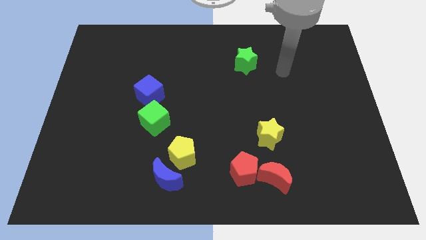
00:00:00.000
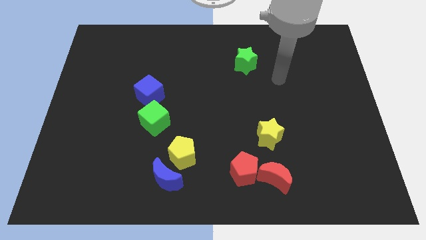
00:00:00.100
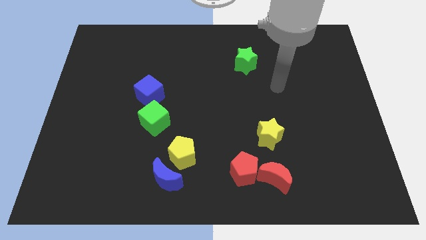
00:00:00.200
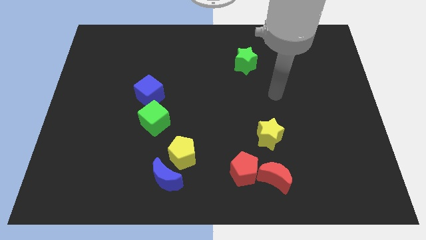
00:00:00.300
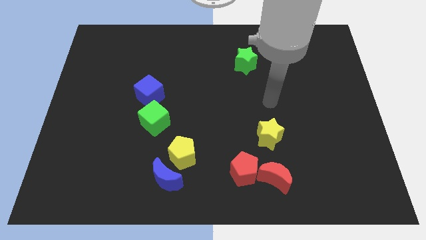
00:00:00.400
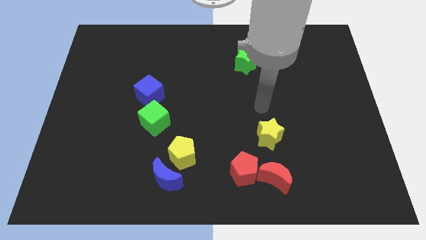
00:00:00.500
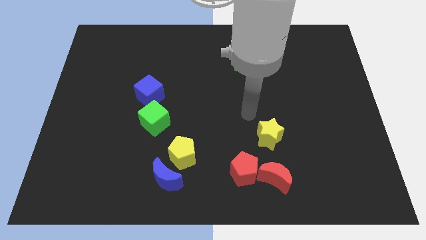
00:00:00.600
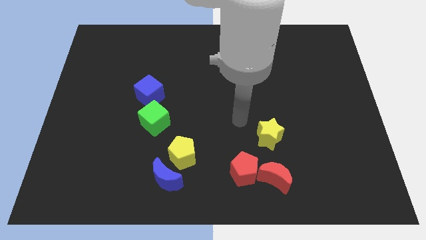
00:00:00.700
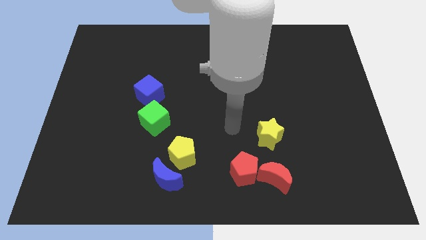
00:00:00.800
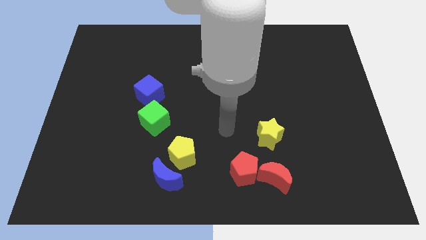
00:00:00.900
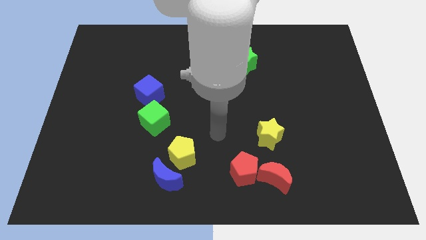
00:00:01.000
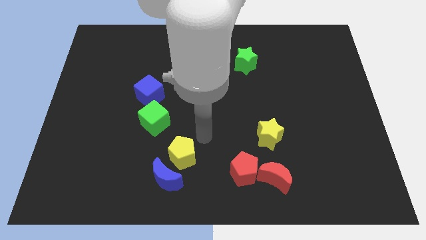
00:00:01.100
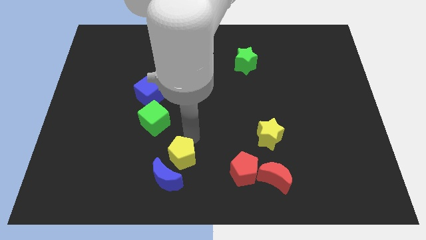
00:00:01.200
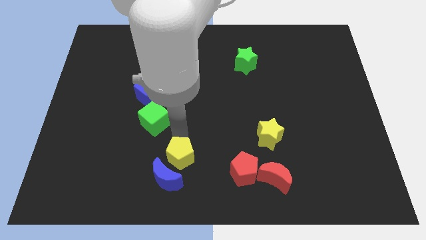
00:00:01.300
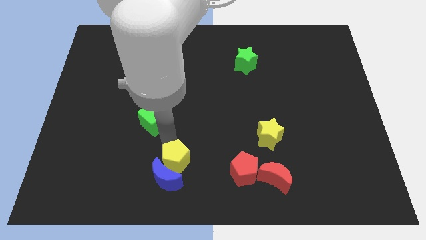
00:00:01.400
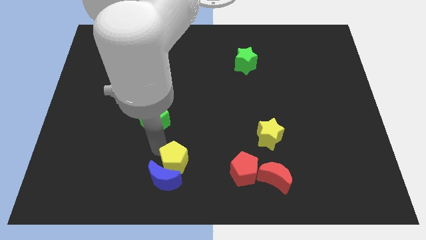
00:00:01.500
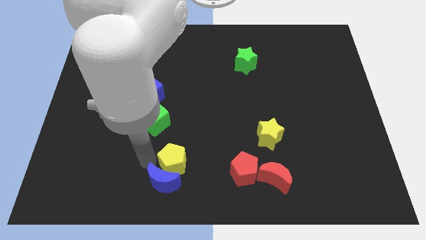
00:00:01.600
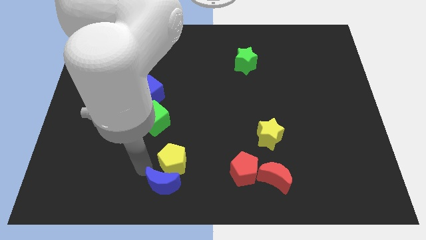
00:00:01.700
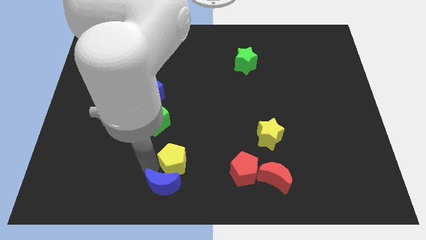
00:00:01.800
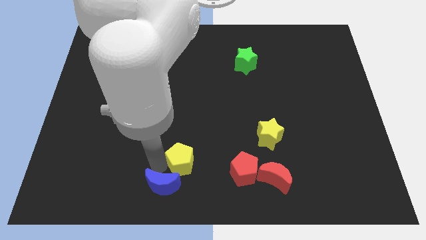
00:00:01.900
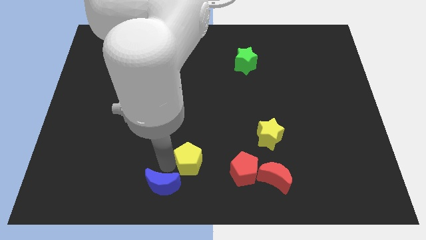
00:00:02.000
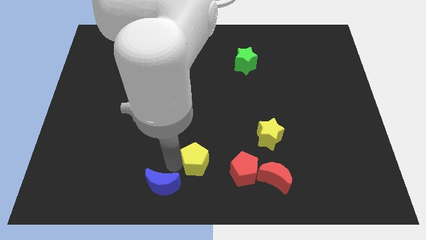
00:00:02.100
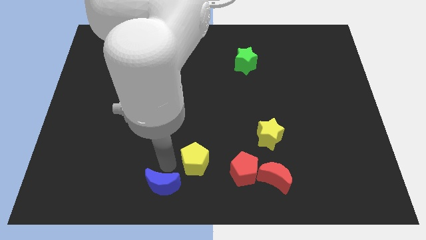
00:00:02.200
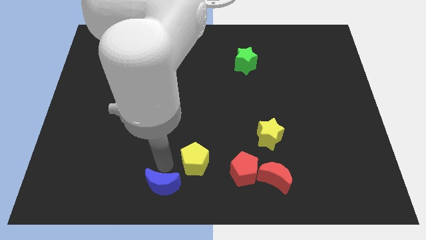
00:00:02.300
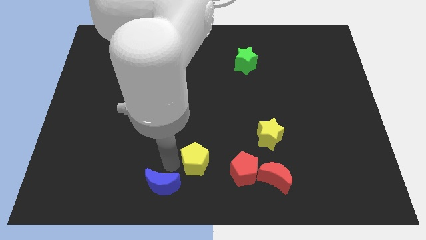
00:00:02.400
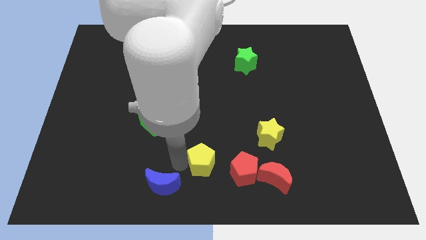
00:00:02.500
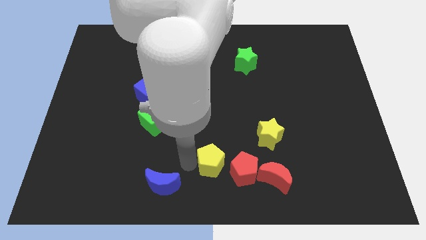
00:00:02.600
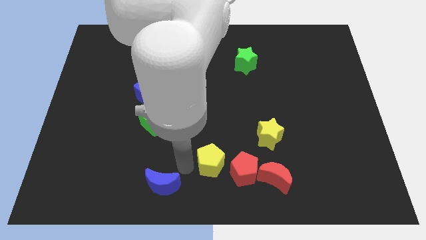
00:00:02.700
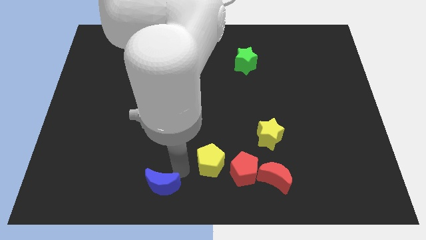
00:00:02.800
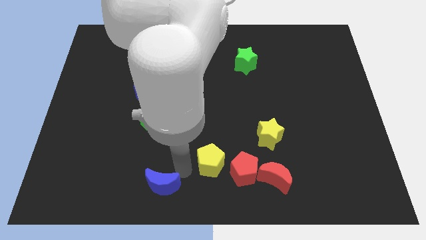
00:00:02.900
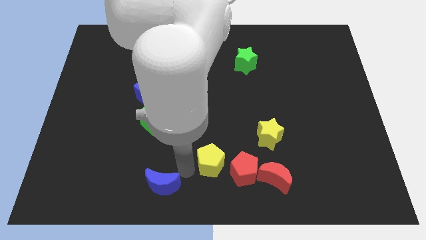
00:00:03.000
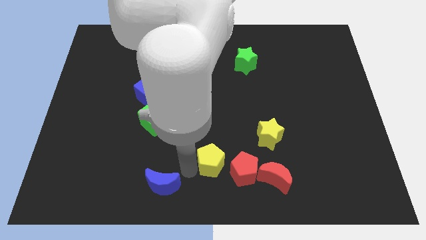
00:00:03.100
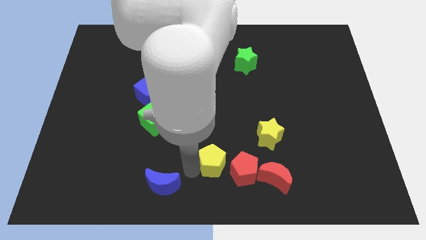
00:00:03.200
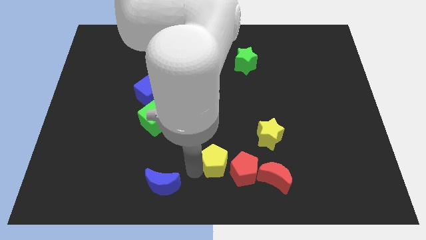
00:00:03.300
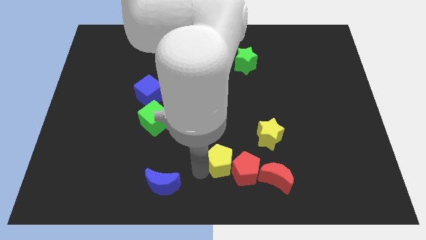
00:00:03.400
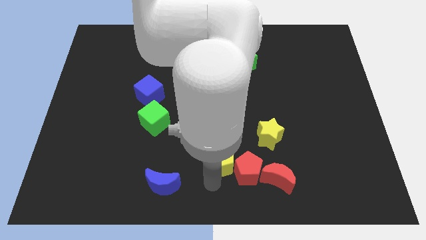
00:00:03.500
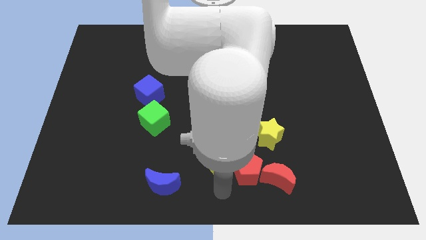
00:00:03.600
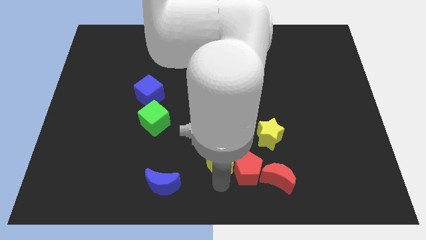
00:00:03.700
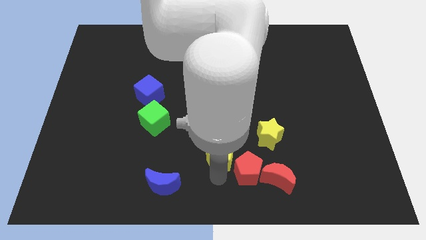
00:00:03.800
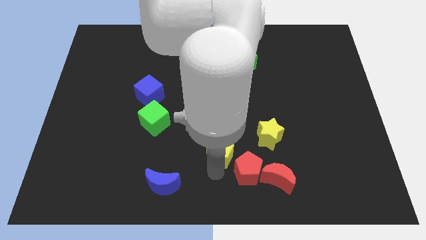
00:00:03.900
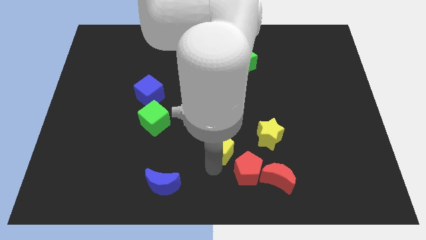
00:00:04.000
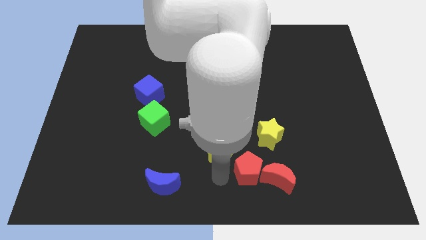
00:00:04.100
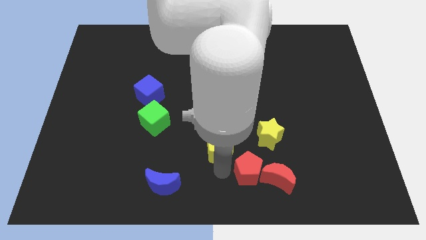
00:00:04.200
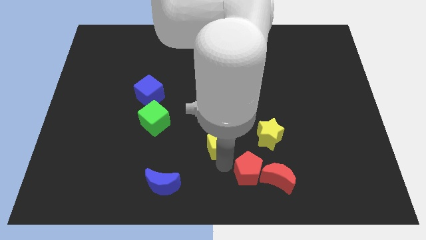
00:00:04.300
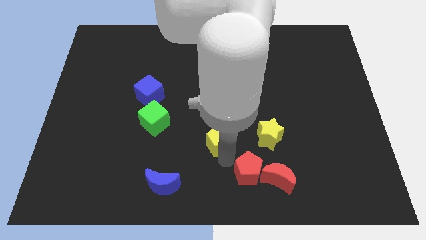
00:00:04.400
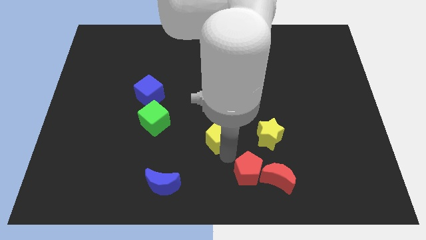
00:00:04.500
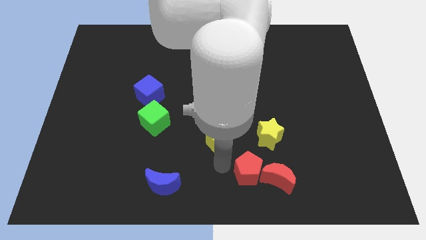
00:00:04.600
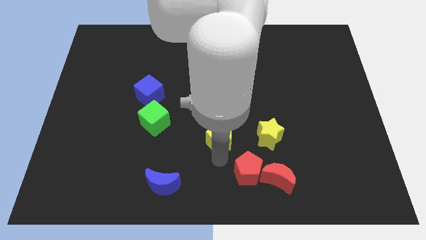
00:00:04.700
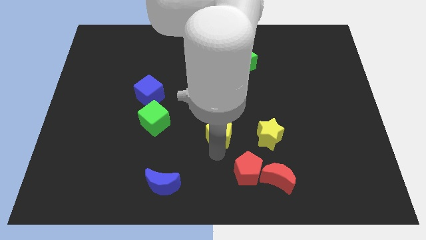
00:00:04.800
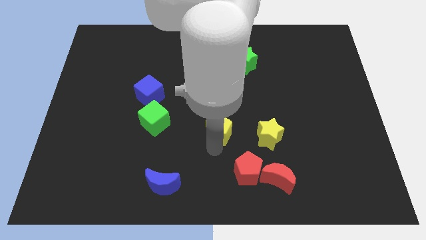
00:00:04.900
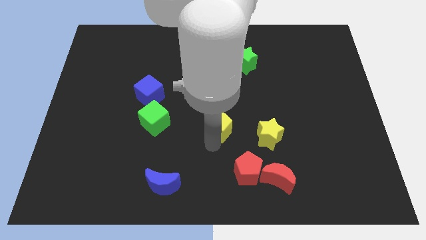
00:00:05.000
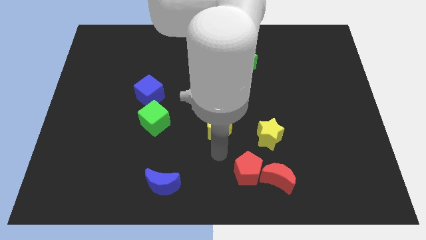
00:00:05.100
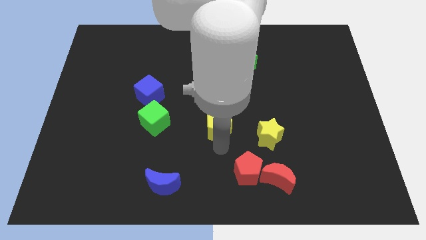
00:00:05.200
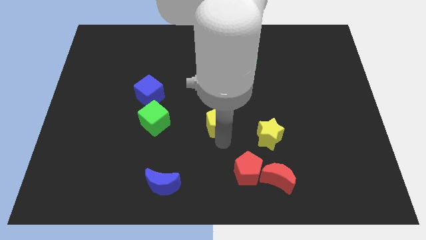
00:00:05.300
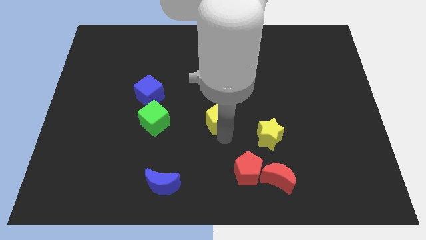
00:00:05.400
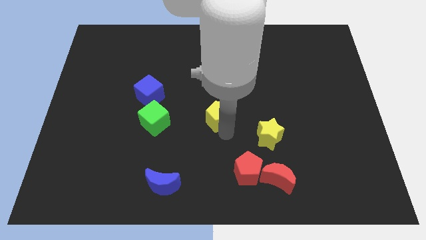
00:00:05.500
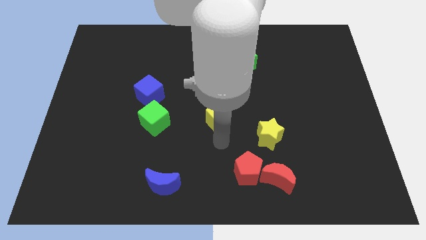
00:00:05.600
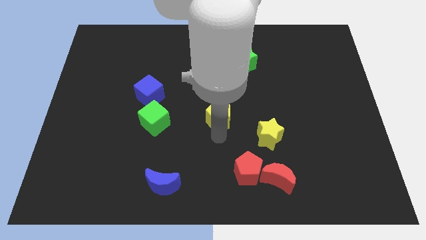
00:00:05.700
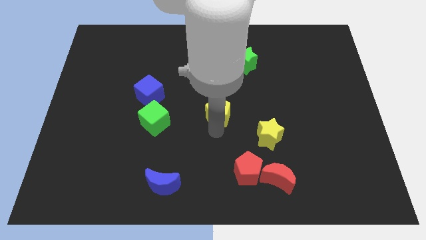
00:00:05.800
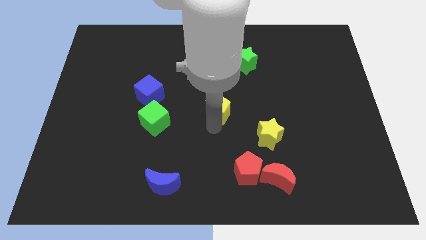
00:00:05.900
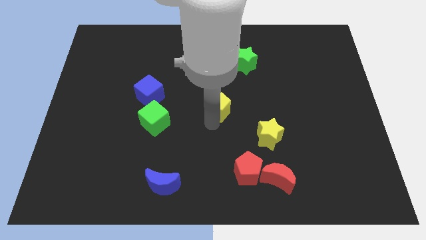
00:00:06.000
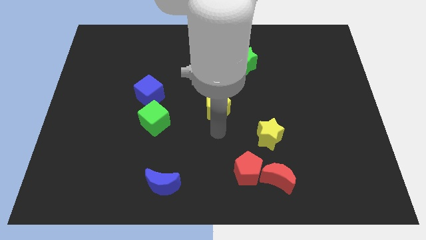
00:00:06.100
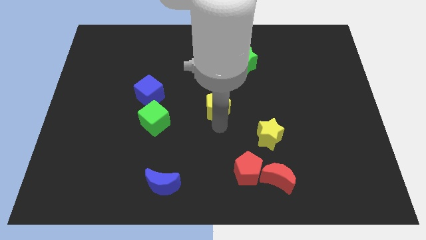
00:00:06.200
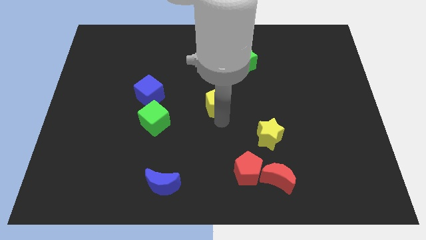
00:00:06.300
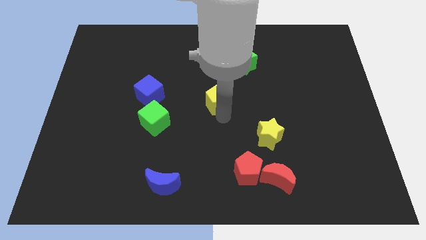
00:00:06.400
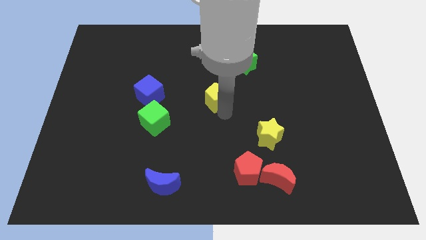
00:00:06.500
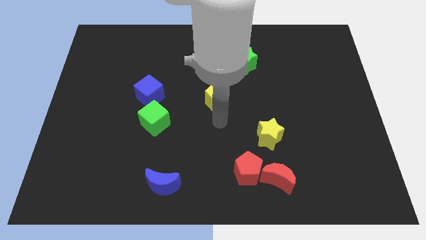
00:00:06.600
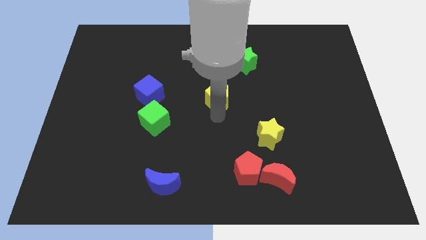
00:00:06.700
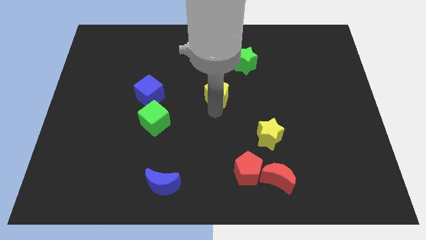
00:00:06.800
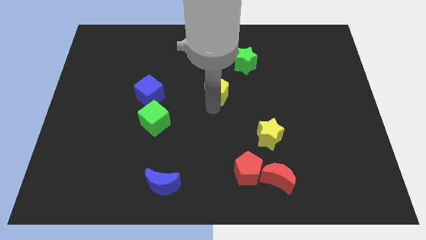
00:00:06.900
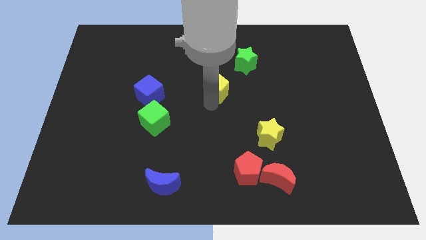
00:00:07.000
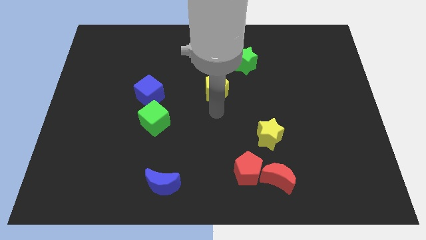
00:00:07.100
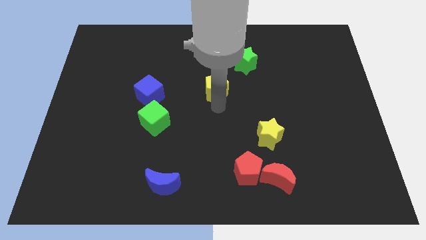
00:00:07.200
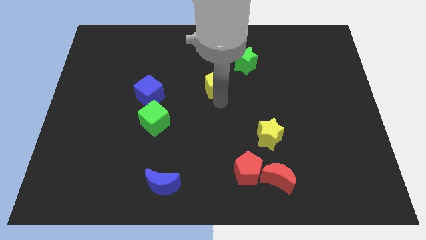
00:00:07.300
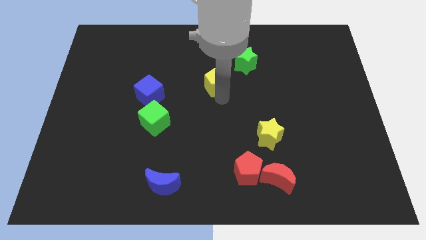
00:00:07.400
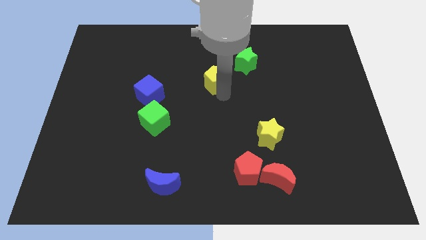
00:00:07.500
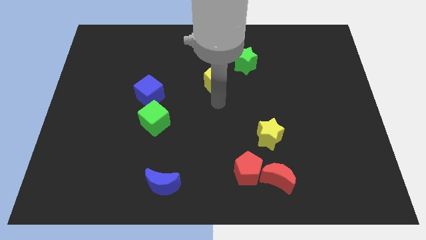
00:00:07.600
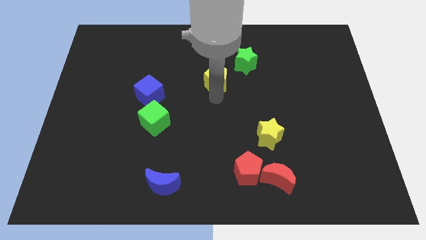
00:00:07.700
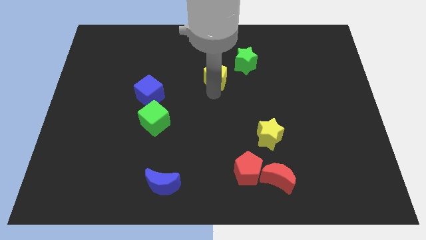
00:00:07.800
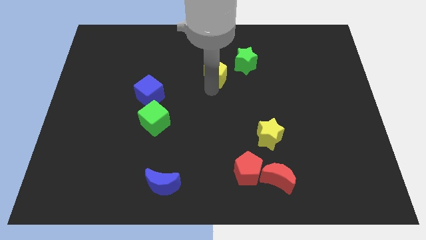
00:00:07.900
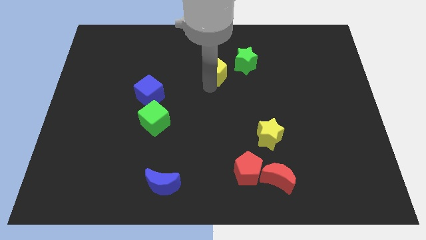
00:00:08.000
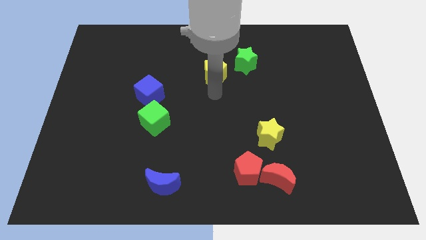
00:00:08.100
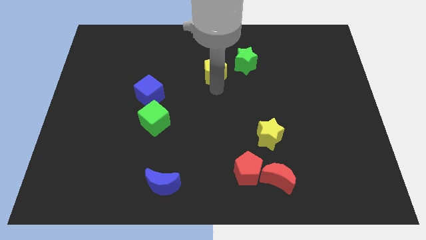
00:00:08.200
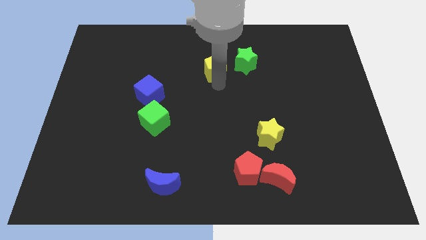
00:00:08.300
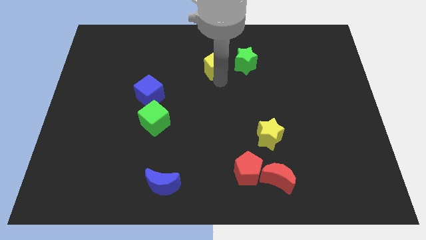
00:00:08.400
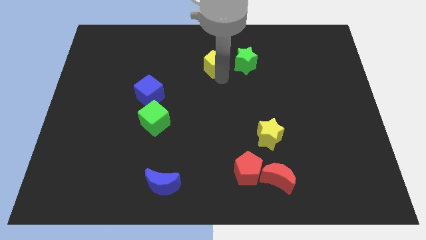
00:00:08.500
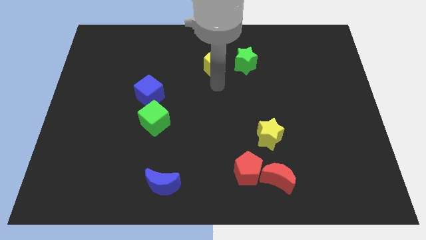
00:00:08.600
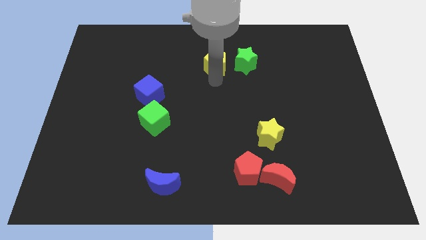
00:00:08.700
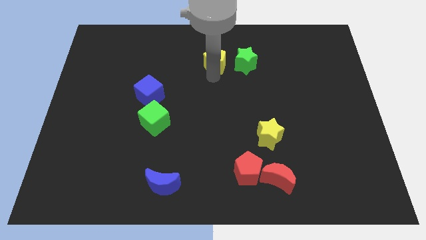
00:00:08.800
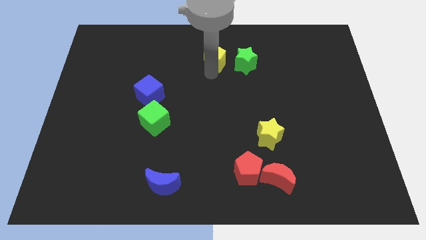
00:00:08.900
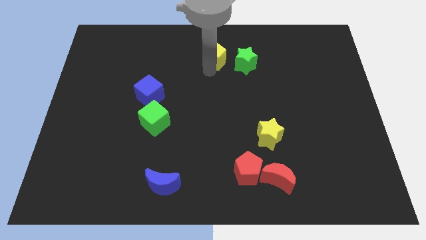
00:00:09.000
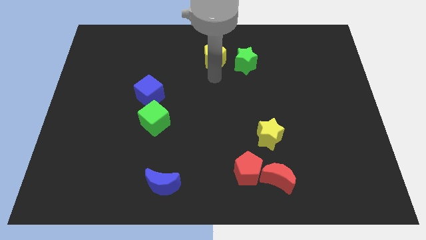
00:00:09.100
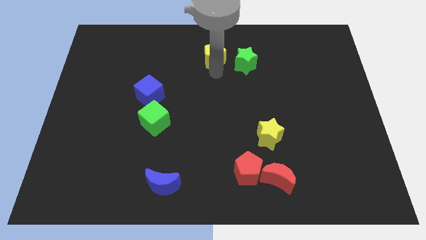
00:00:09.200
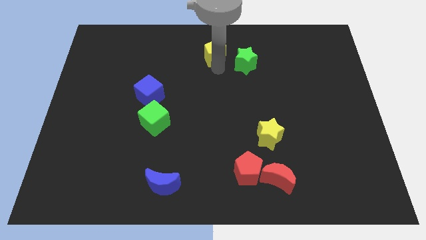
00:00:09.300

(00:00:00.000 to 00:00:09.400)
push the yellow pentagon to the top
